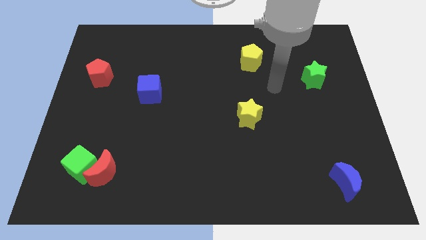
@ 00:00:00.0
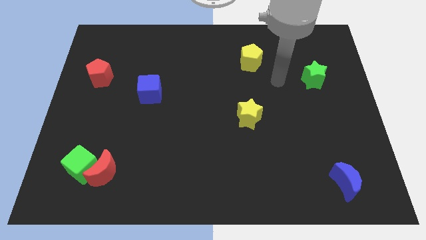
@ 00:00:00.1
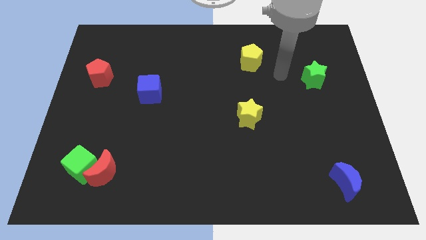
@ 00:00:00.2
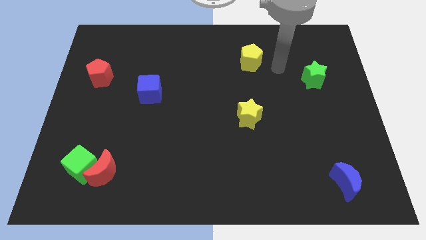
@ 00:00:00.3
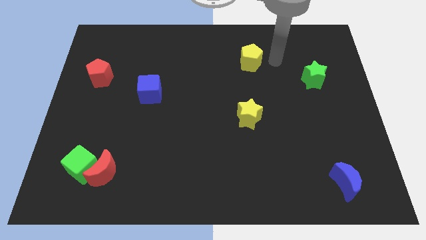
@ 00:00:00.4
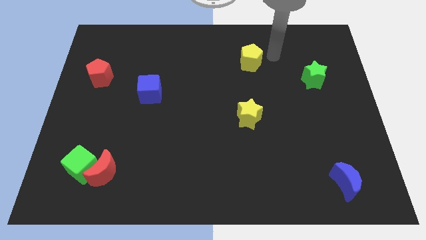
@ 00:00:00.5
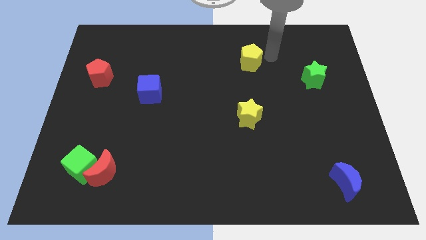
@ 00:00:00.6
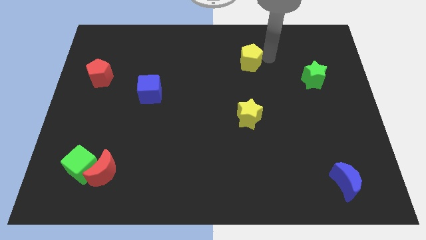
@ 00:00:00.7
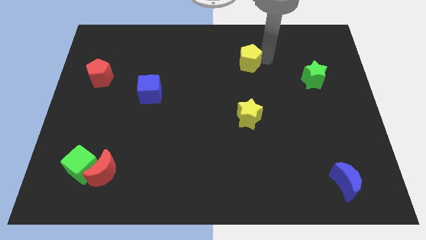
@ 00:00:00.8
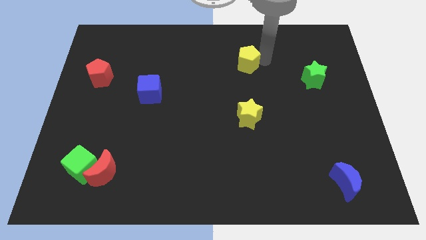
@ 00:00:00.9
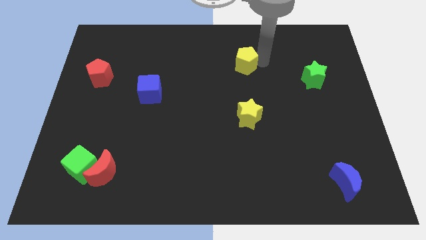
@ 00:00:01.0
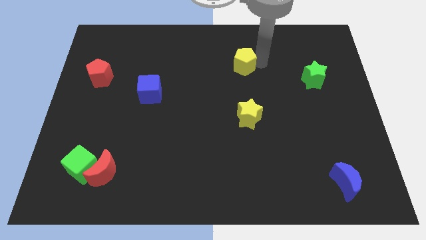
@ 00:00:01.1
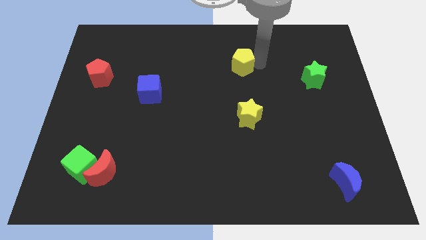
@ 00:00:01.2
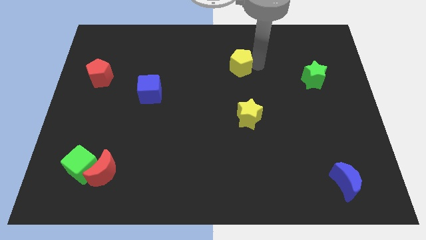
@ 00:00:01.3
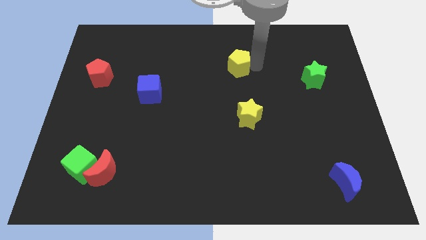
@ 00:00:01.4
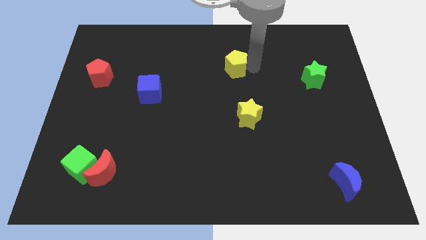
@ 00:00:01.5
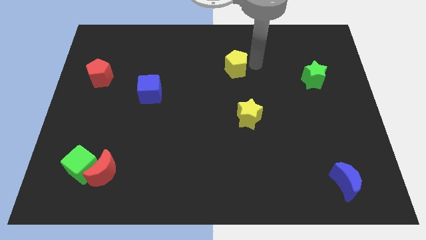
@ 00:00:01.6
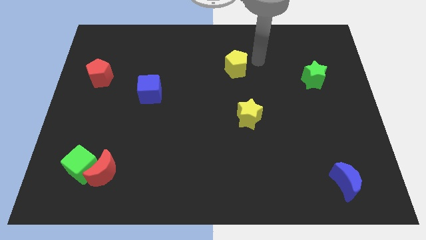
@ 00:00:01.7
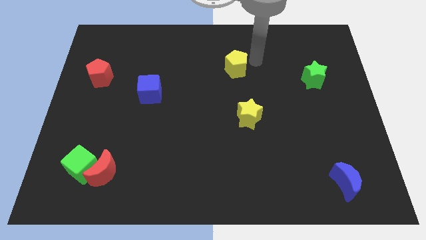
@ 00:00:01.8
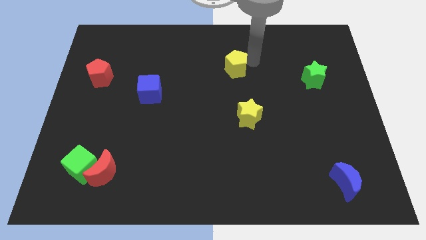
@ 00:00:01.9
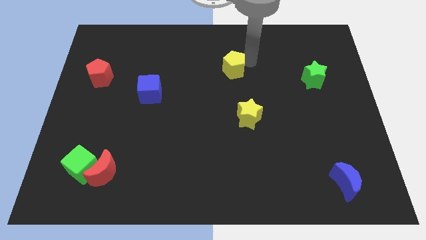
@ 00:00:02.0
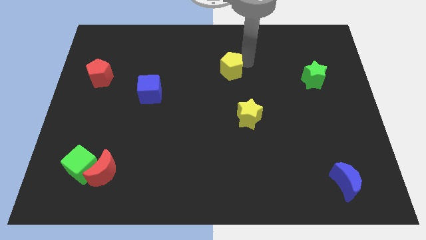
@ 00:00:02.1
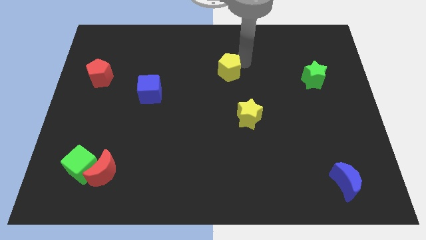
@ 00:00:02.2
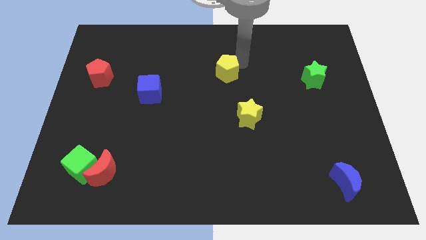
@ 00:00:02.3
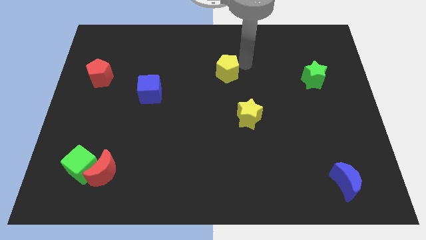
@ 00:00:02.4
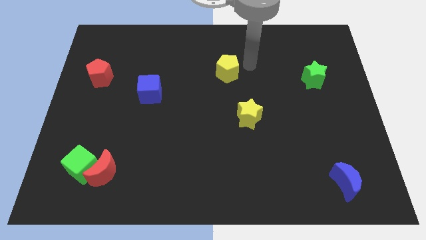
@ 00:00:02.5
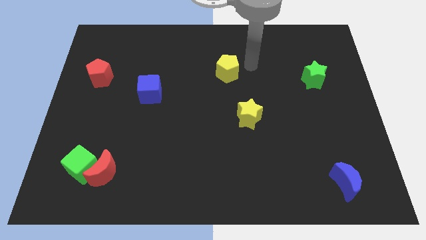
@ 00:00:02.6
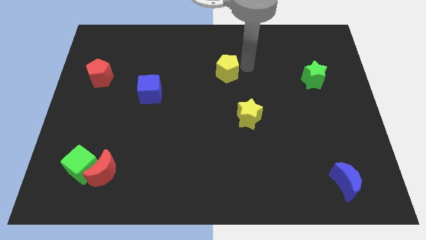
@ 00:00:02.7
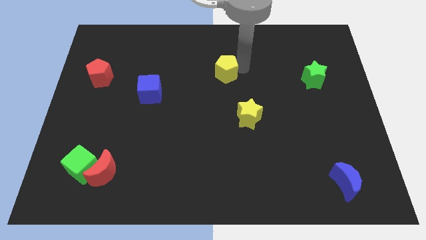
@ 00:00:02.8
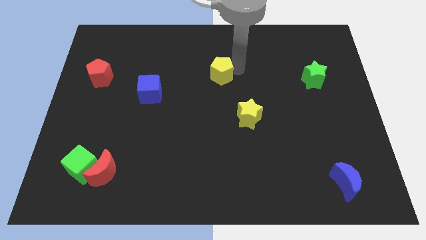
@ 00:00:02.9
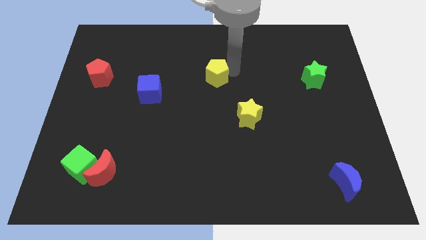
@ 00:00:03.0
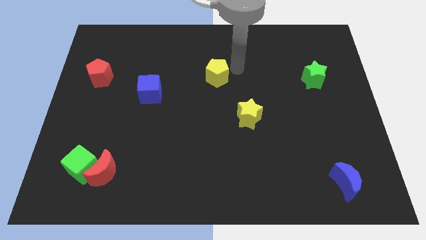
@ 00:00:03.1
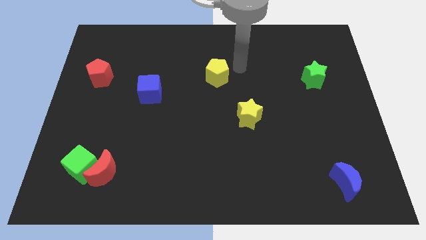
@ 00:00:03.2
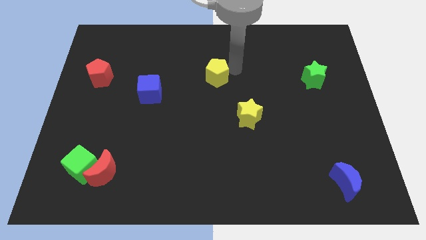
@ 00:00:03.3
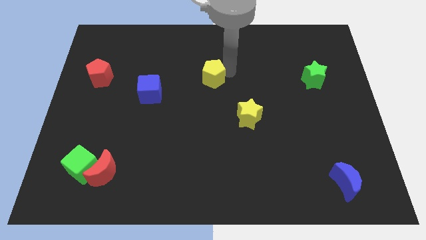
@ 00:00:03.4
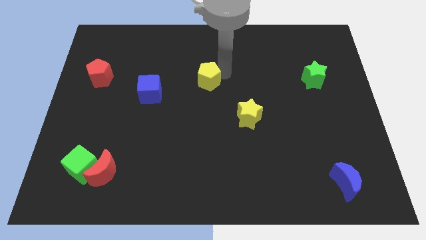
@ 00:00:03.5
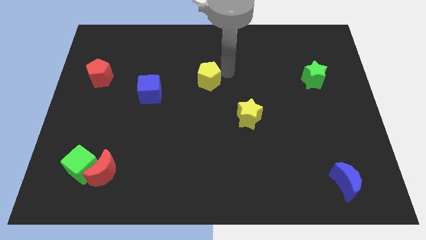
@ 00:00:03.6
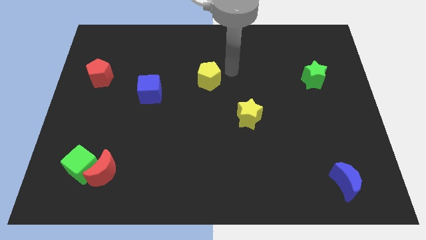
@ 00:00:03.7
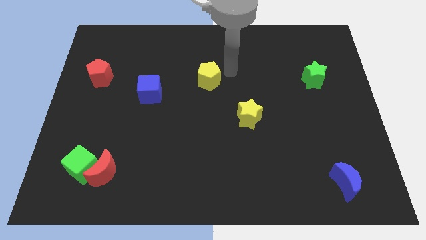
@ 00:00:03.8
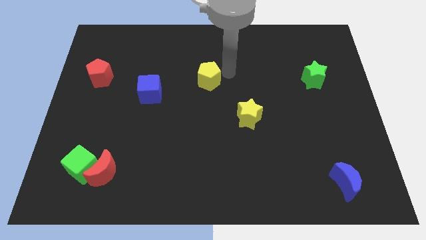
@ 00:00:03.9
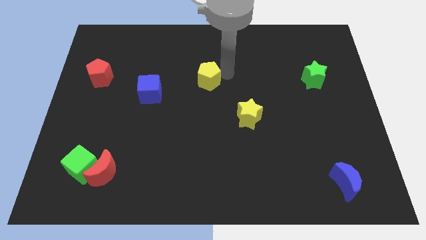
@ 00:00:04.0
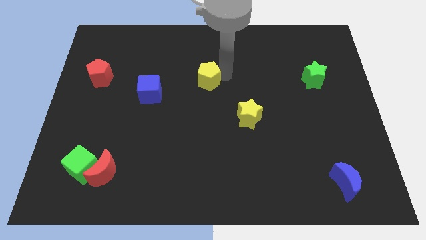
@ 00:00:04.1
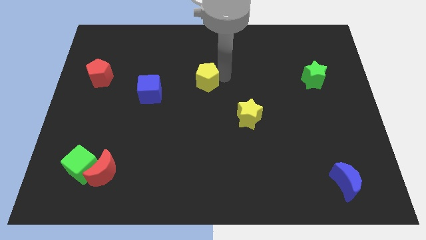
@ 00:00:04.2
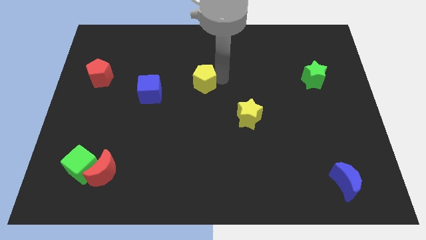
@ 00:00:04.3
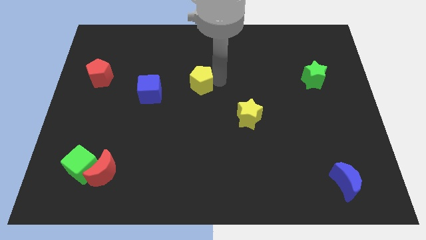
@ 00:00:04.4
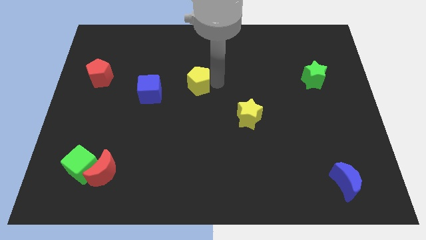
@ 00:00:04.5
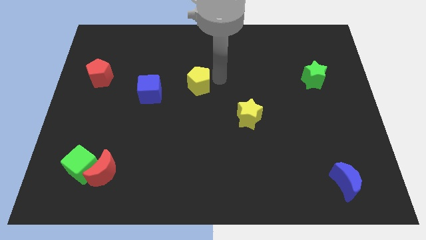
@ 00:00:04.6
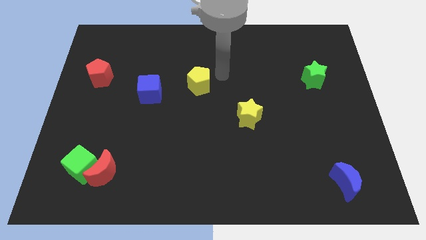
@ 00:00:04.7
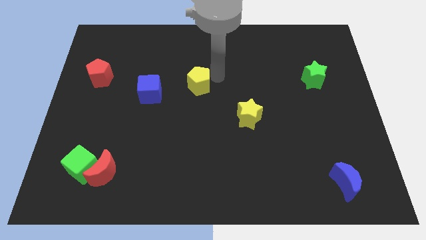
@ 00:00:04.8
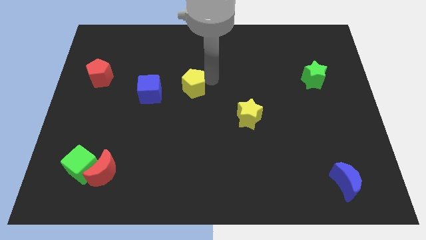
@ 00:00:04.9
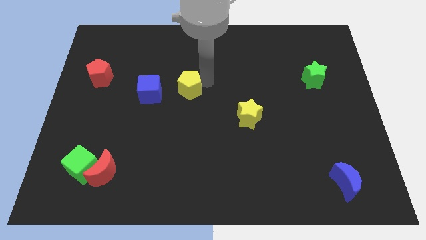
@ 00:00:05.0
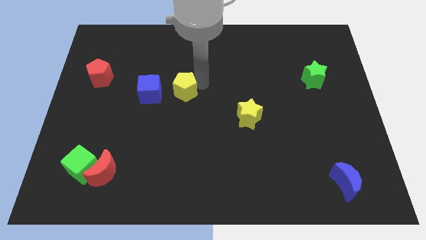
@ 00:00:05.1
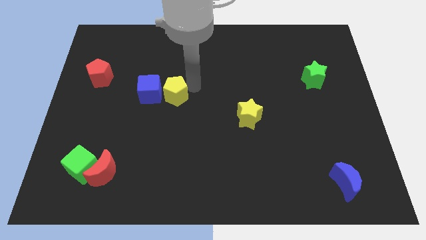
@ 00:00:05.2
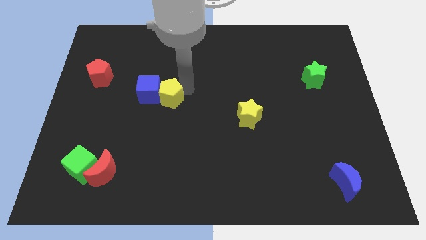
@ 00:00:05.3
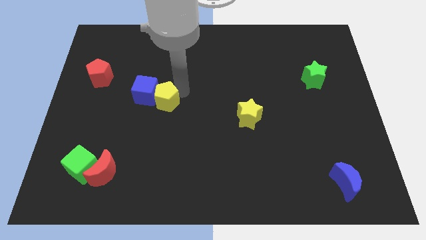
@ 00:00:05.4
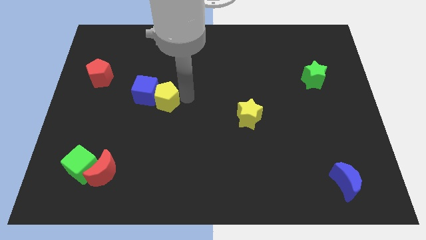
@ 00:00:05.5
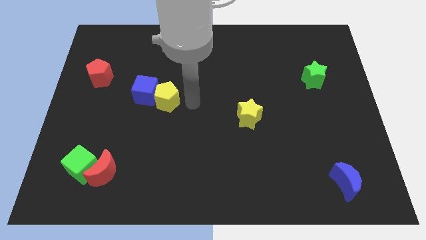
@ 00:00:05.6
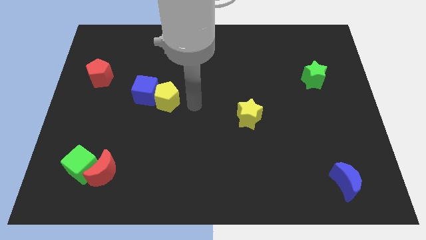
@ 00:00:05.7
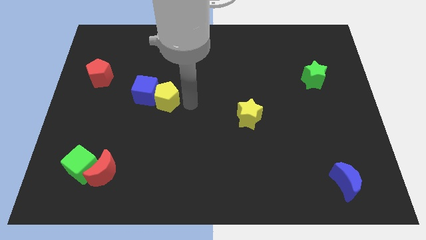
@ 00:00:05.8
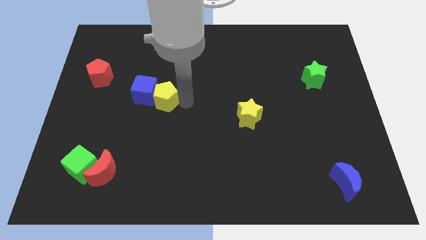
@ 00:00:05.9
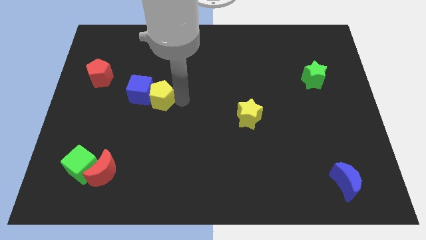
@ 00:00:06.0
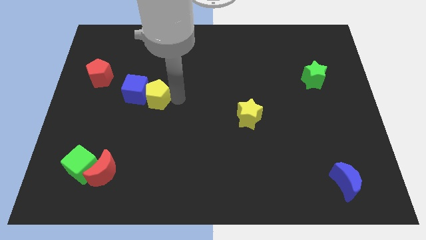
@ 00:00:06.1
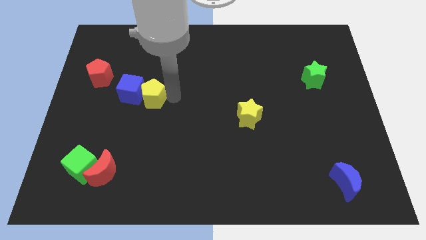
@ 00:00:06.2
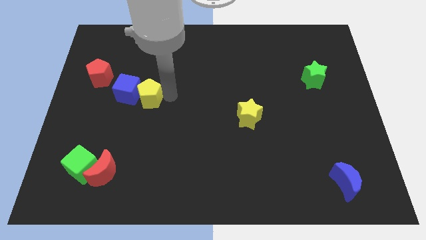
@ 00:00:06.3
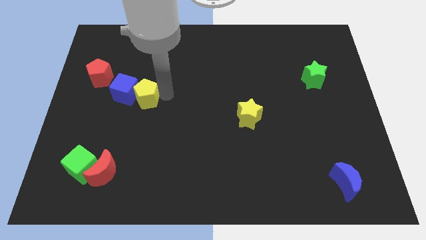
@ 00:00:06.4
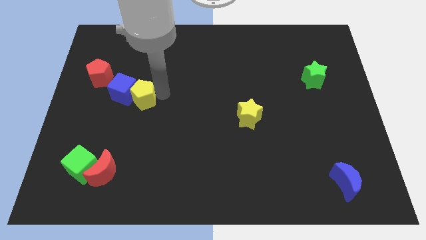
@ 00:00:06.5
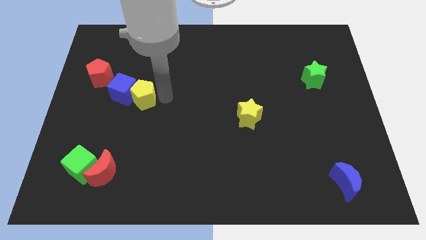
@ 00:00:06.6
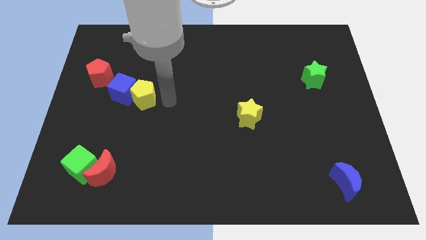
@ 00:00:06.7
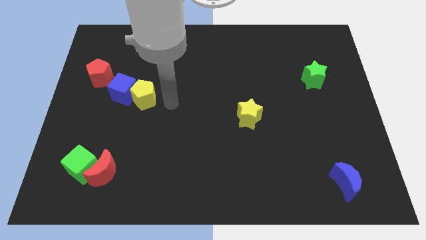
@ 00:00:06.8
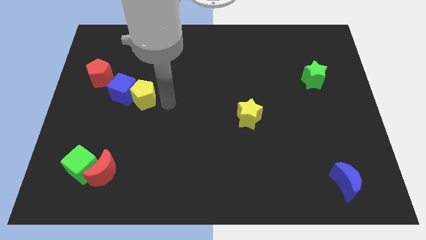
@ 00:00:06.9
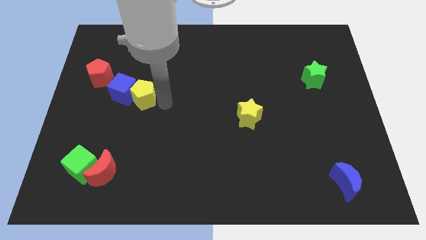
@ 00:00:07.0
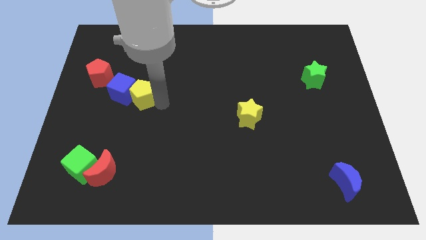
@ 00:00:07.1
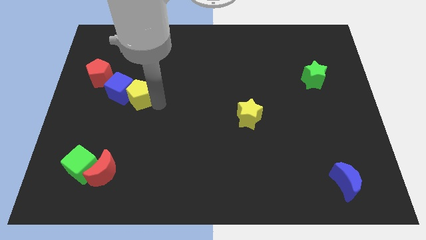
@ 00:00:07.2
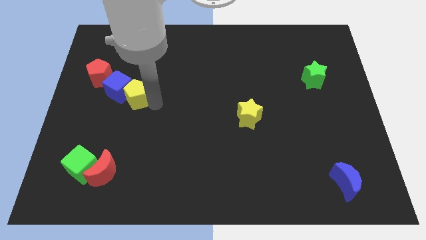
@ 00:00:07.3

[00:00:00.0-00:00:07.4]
push the yellow pentagon diagonally down and to the right of the red pentagon
